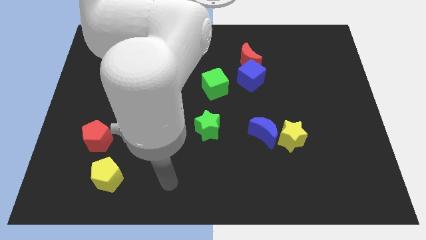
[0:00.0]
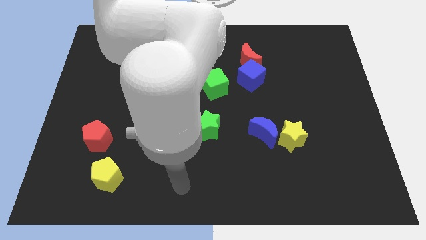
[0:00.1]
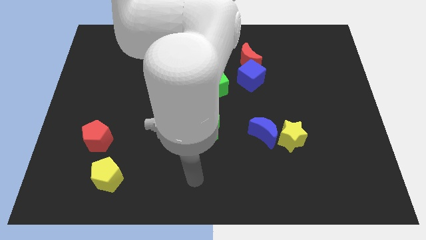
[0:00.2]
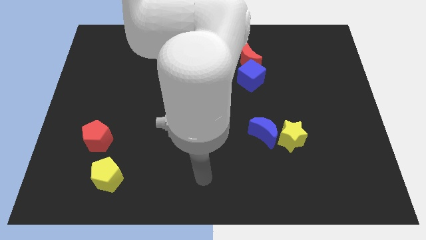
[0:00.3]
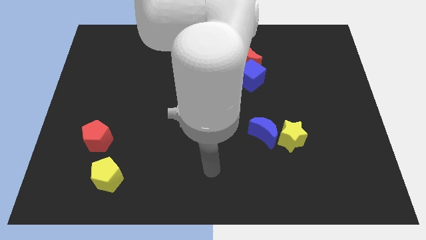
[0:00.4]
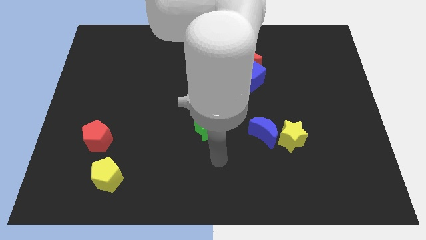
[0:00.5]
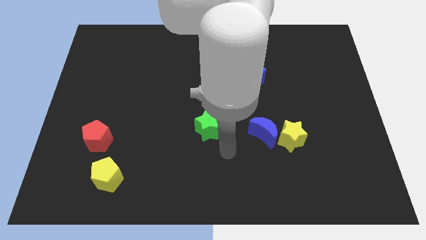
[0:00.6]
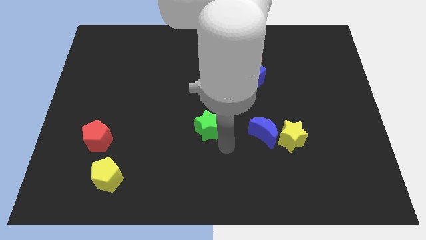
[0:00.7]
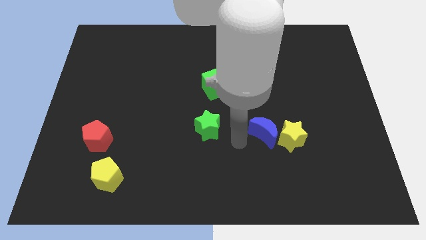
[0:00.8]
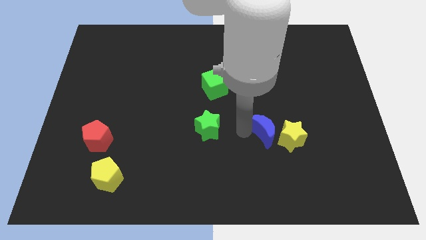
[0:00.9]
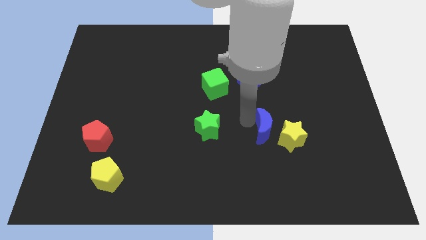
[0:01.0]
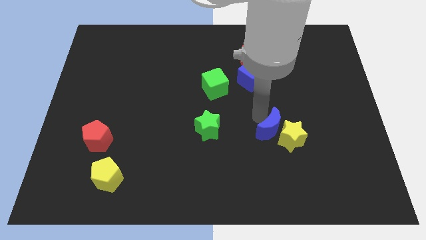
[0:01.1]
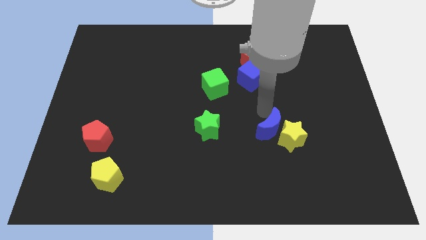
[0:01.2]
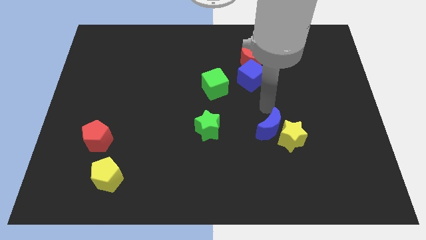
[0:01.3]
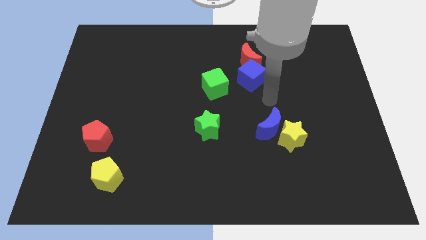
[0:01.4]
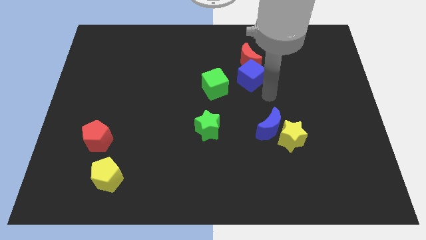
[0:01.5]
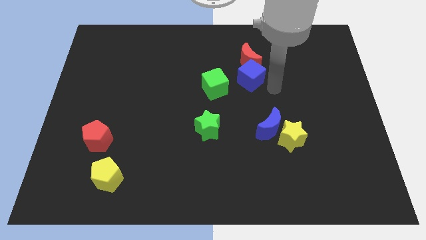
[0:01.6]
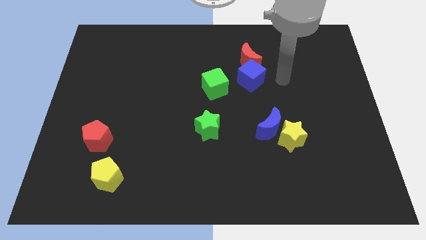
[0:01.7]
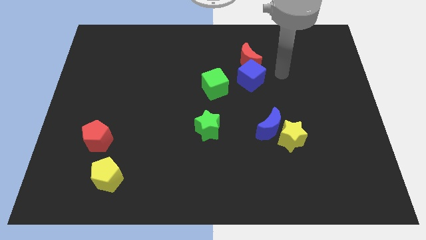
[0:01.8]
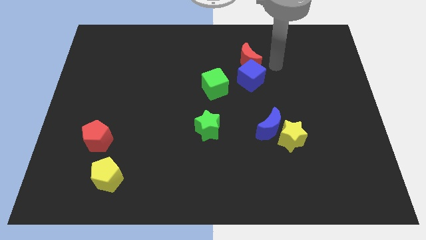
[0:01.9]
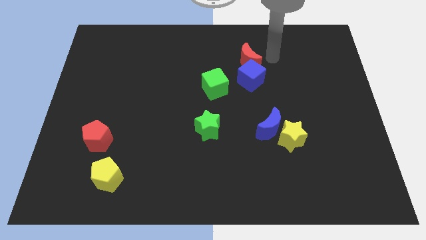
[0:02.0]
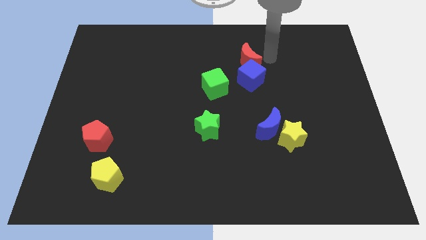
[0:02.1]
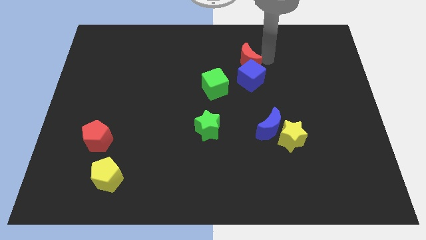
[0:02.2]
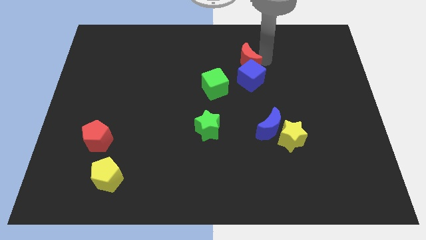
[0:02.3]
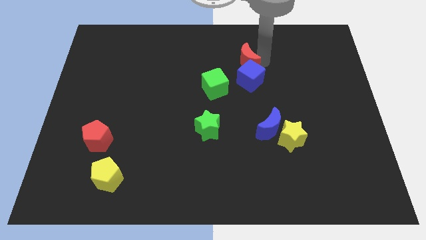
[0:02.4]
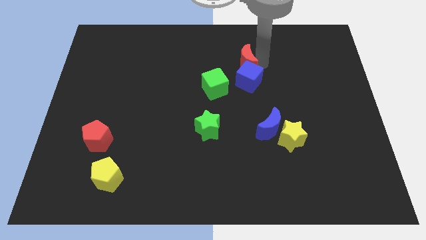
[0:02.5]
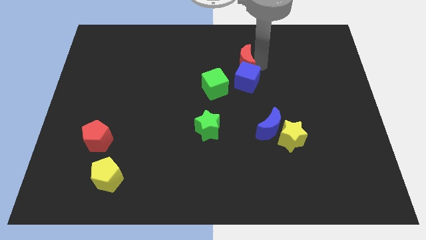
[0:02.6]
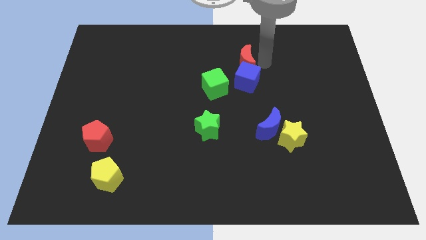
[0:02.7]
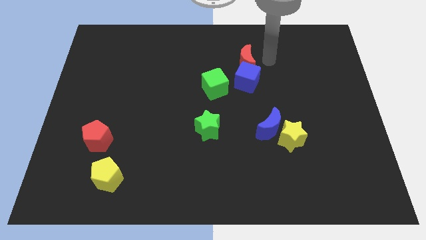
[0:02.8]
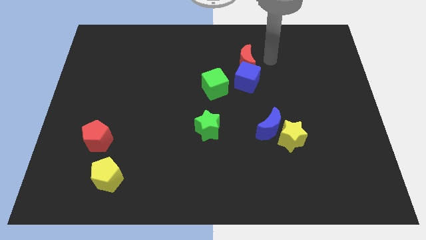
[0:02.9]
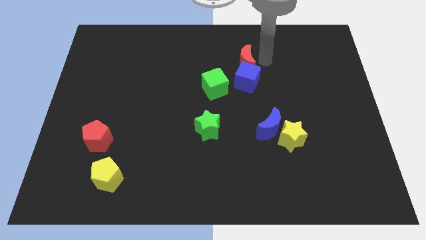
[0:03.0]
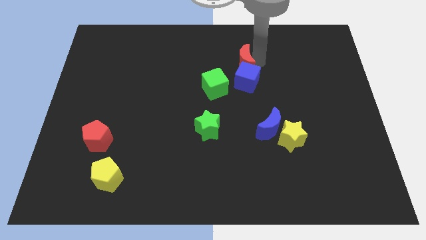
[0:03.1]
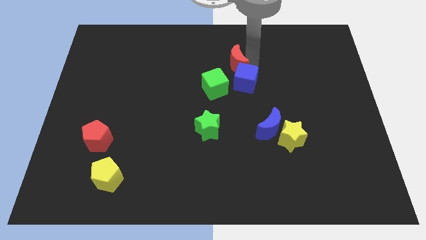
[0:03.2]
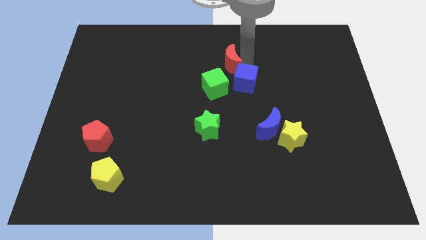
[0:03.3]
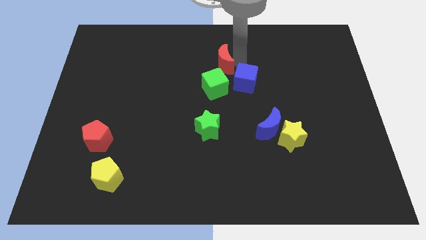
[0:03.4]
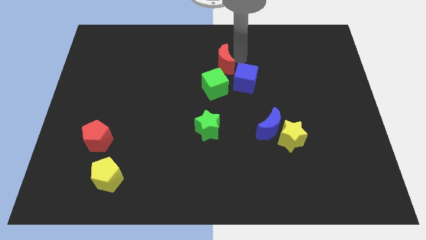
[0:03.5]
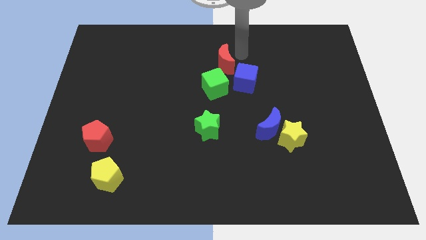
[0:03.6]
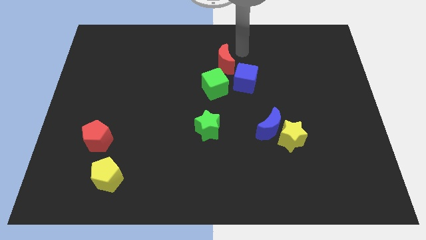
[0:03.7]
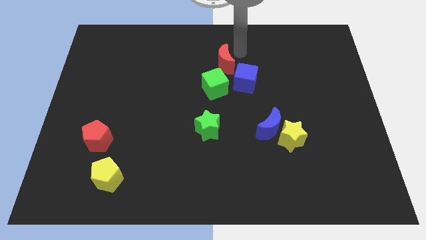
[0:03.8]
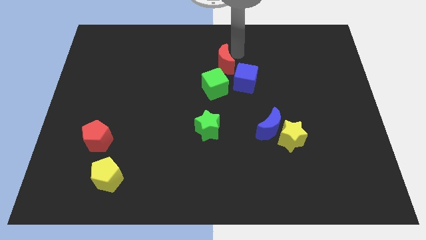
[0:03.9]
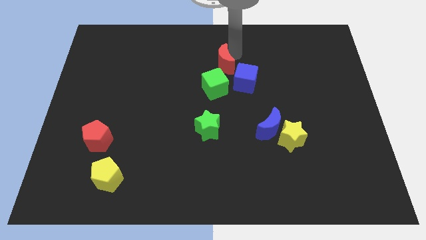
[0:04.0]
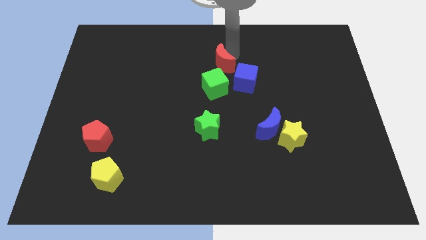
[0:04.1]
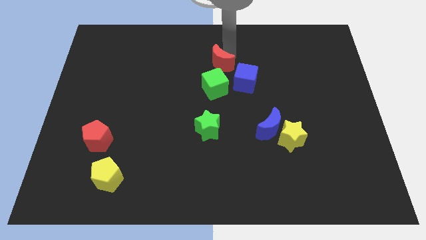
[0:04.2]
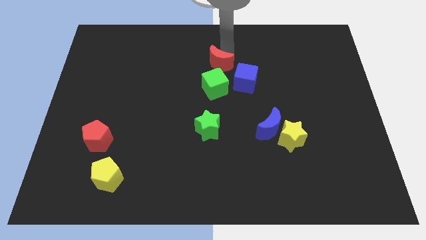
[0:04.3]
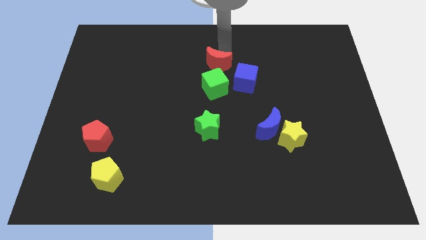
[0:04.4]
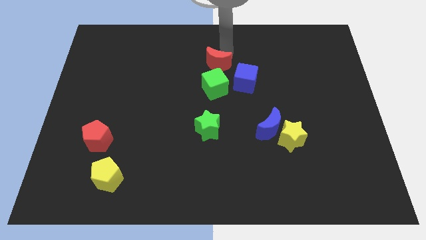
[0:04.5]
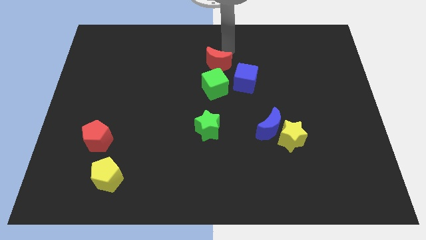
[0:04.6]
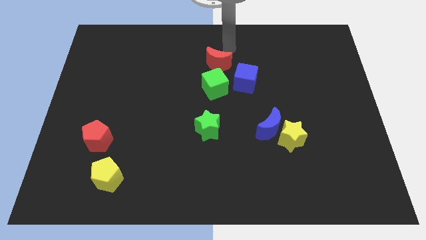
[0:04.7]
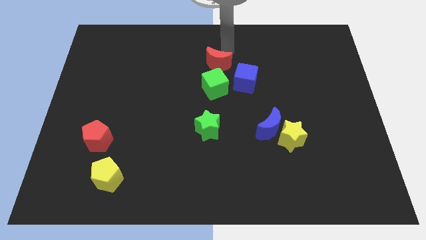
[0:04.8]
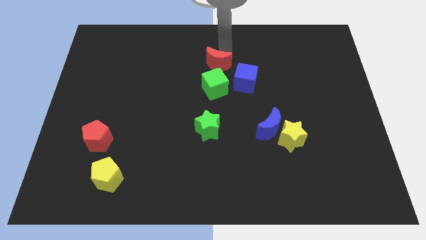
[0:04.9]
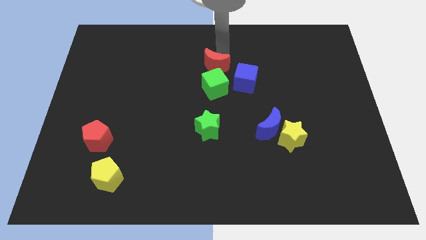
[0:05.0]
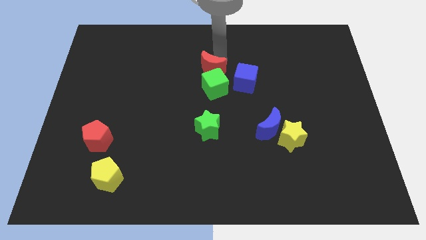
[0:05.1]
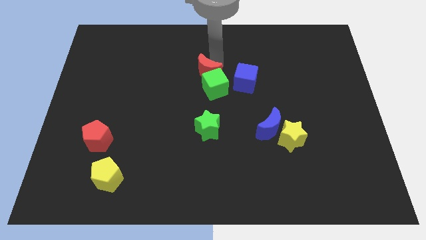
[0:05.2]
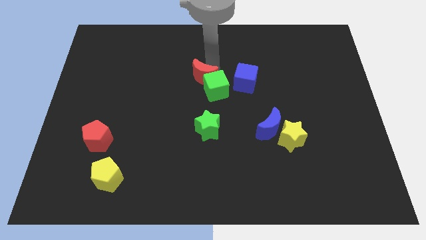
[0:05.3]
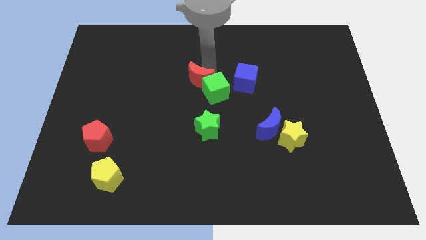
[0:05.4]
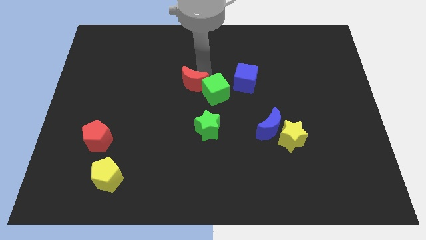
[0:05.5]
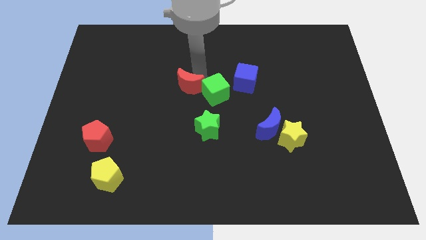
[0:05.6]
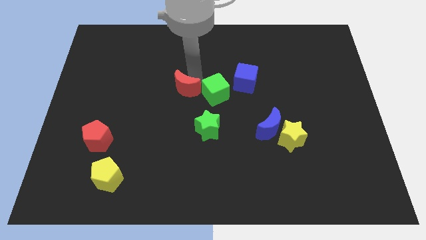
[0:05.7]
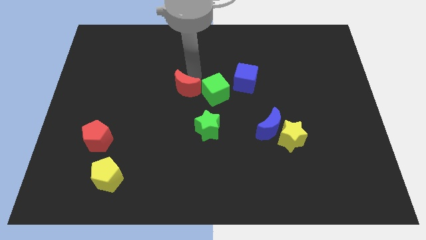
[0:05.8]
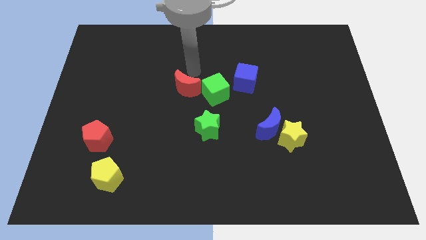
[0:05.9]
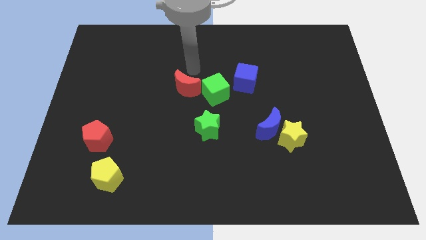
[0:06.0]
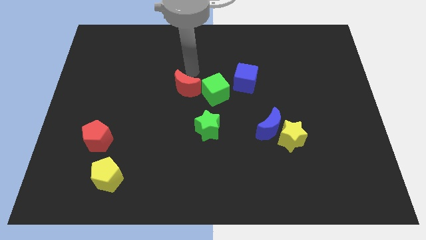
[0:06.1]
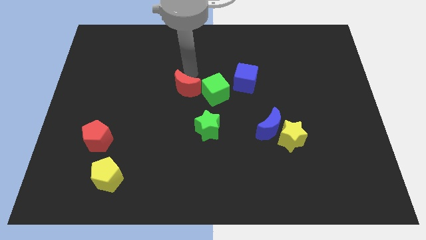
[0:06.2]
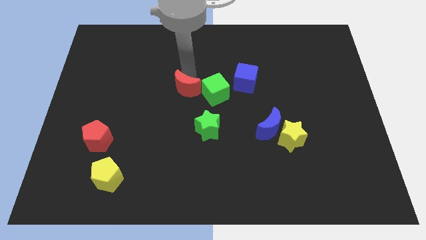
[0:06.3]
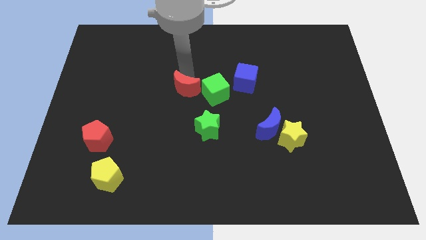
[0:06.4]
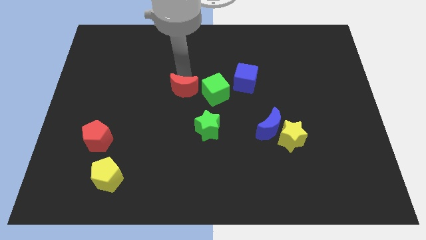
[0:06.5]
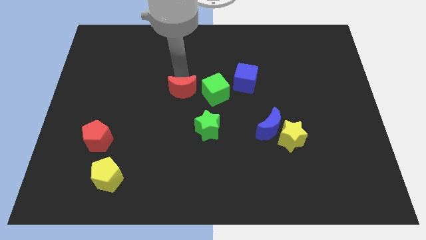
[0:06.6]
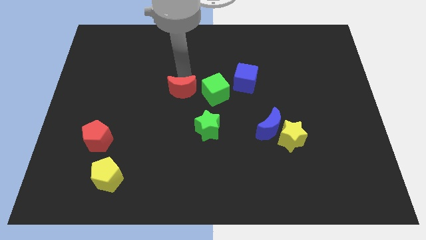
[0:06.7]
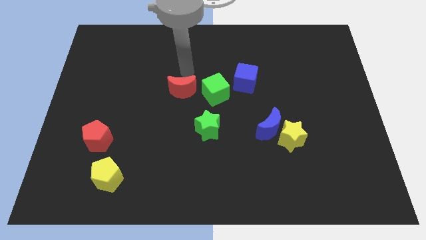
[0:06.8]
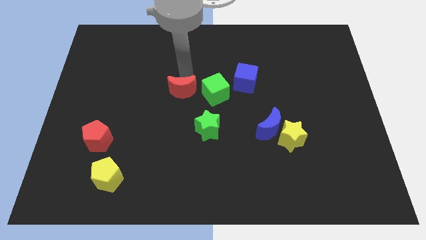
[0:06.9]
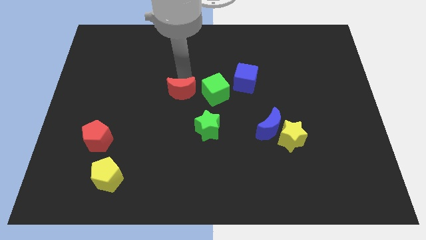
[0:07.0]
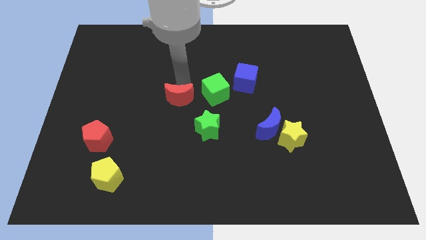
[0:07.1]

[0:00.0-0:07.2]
slide the red moon down and then left

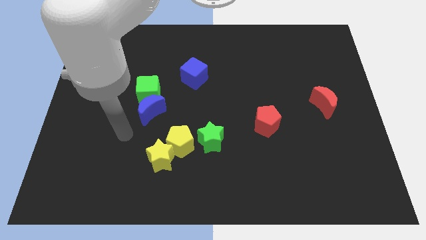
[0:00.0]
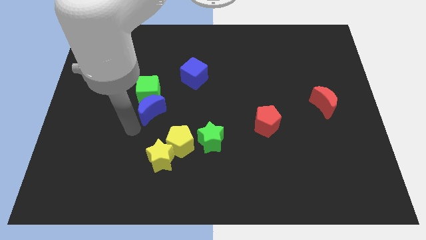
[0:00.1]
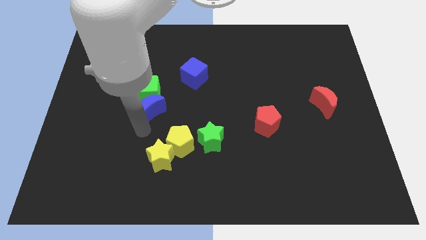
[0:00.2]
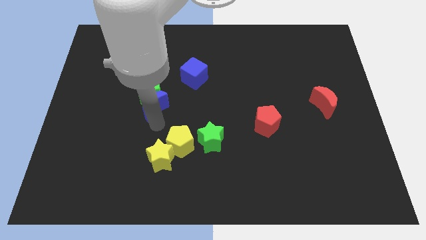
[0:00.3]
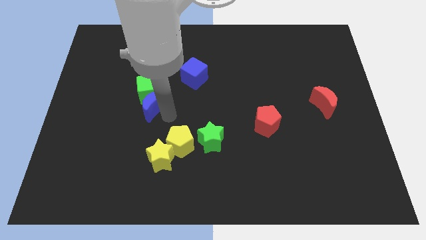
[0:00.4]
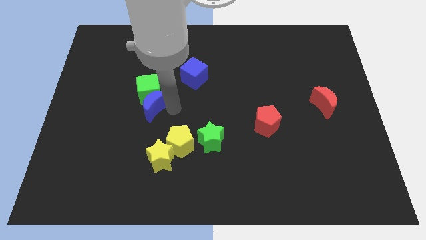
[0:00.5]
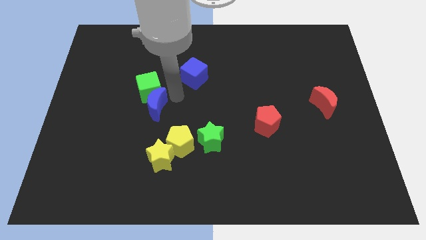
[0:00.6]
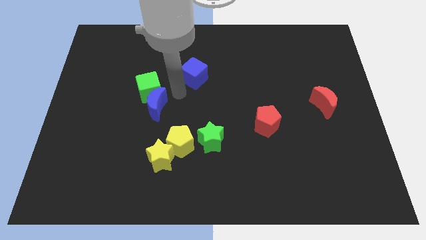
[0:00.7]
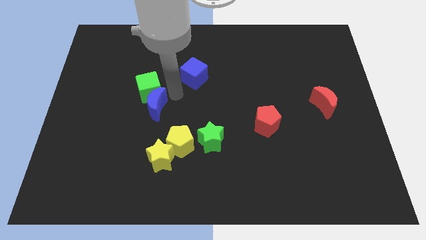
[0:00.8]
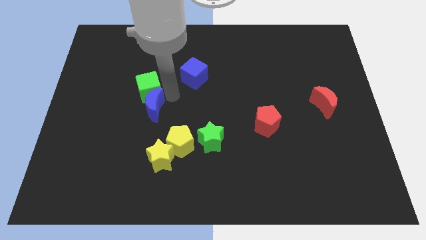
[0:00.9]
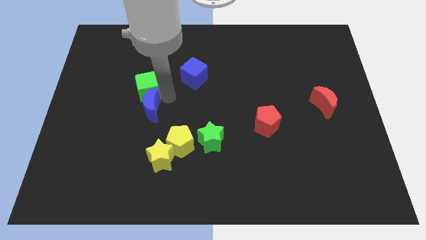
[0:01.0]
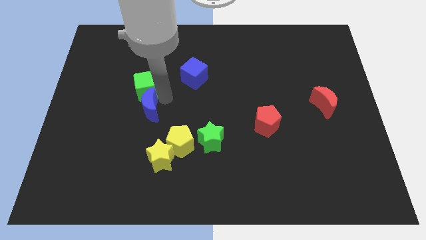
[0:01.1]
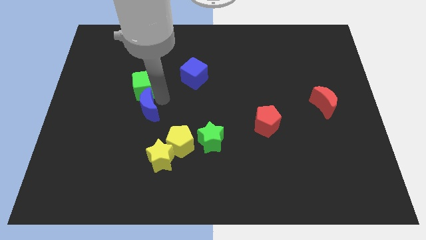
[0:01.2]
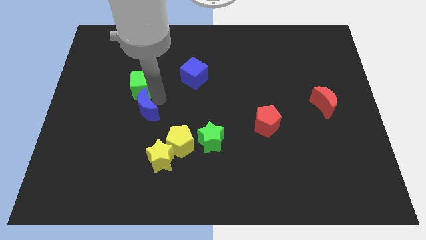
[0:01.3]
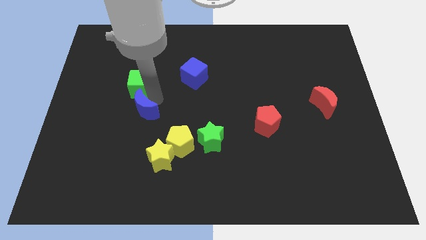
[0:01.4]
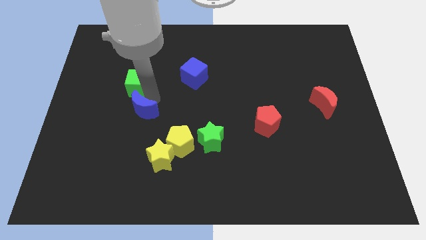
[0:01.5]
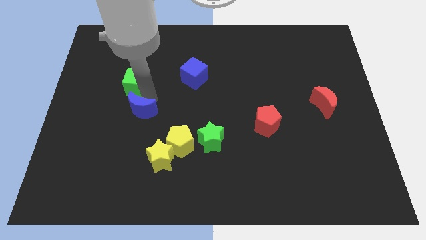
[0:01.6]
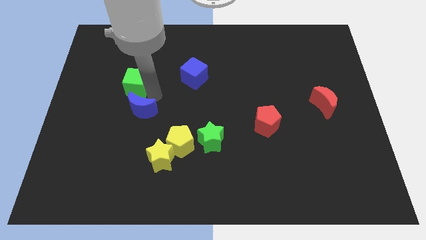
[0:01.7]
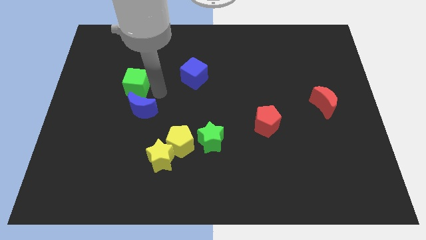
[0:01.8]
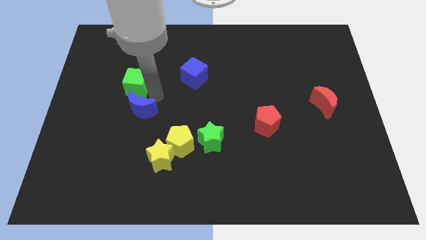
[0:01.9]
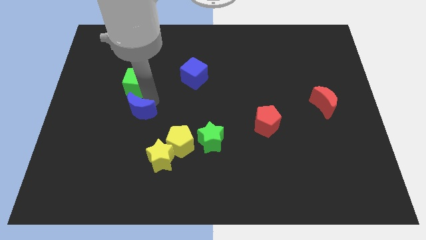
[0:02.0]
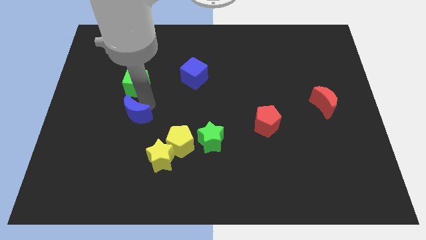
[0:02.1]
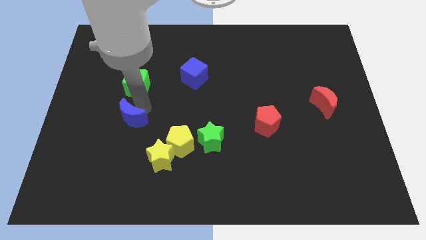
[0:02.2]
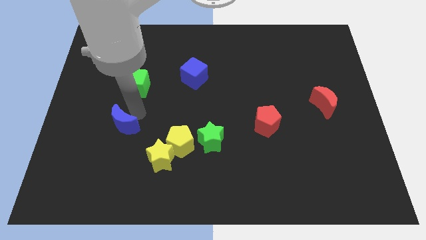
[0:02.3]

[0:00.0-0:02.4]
slide the blue moon downwards and left a little
